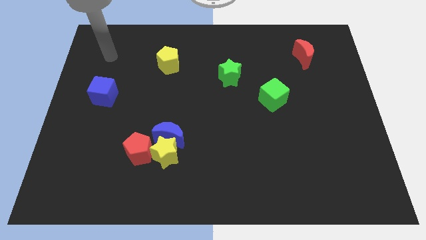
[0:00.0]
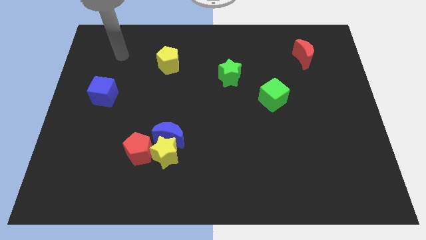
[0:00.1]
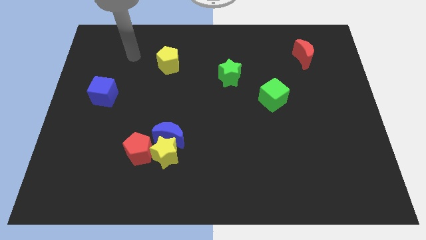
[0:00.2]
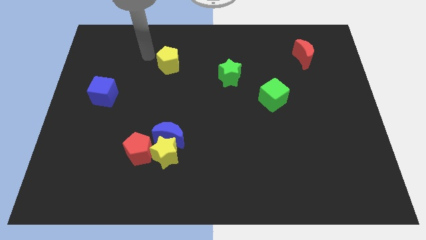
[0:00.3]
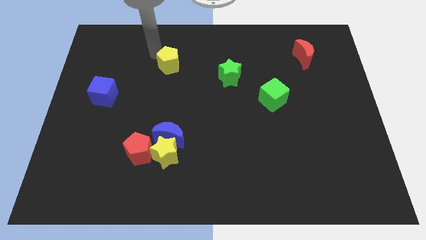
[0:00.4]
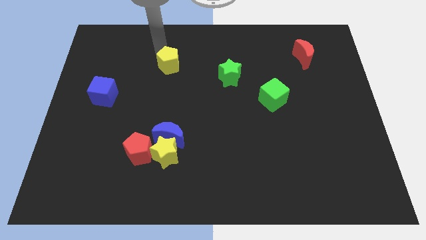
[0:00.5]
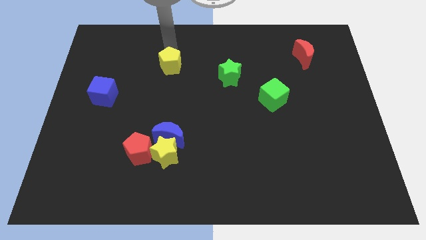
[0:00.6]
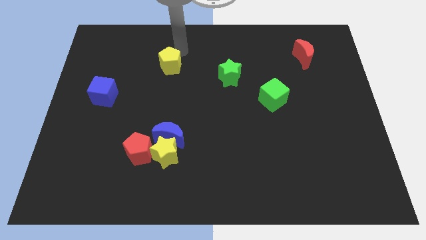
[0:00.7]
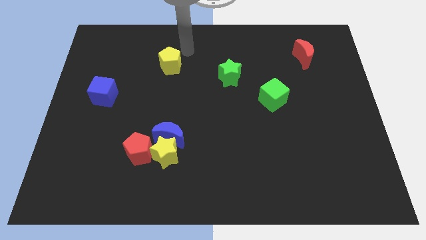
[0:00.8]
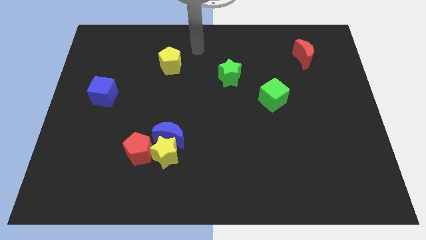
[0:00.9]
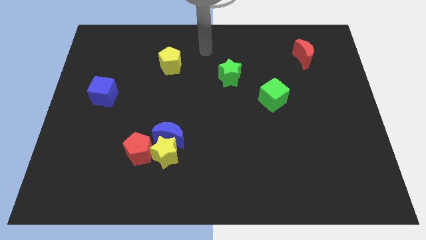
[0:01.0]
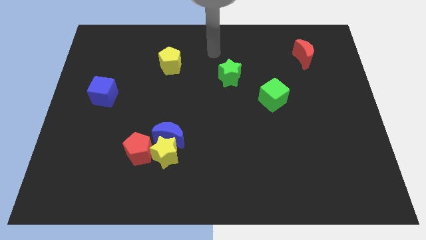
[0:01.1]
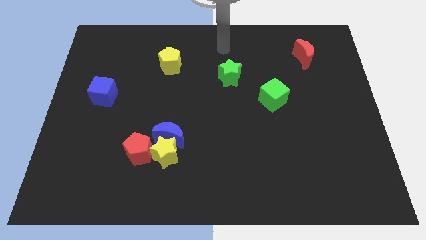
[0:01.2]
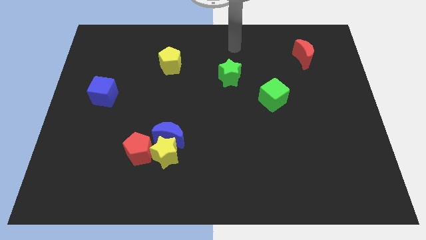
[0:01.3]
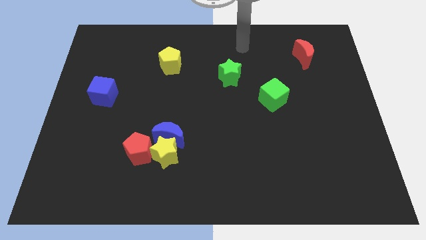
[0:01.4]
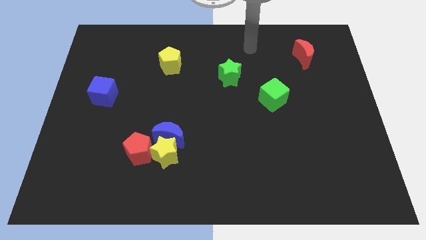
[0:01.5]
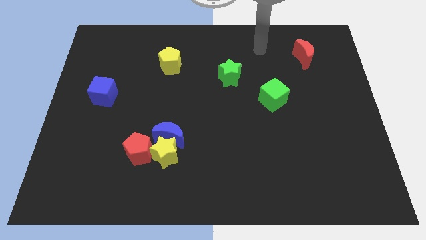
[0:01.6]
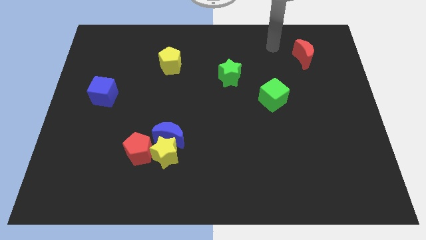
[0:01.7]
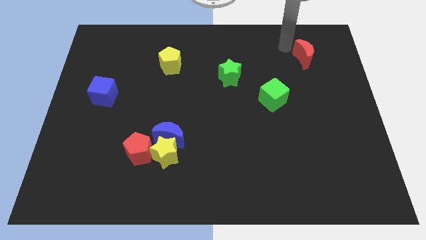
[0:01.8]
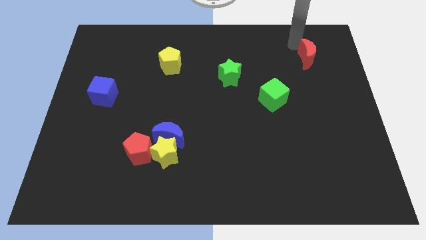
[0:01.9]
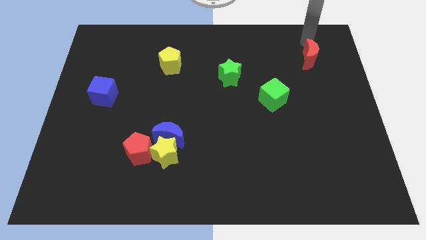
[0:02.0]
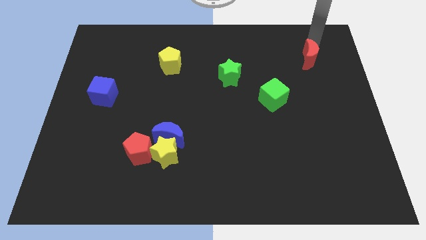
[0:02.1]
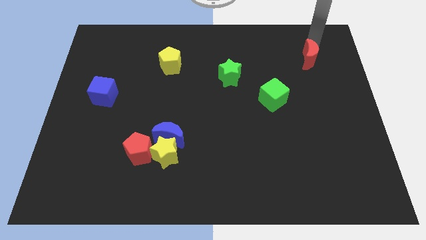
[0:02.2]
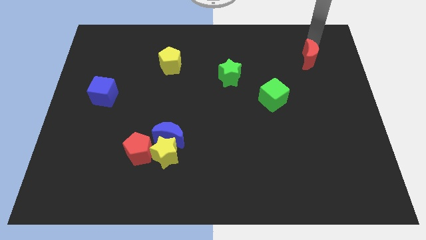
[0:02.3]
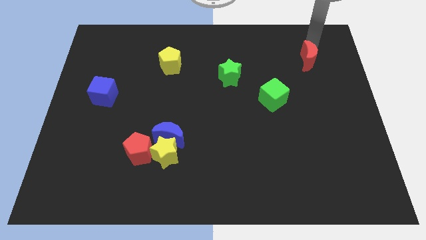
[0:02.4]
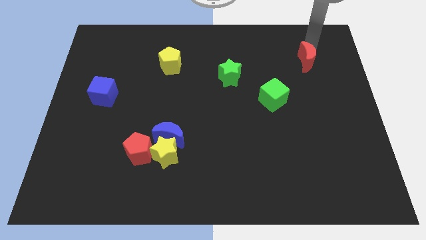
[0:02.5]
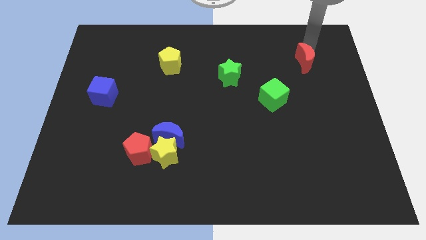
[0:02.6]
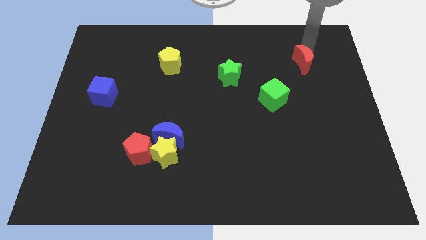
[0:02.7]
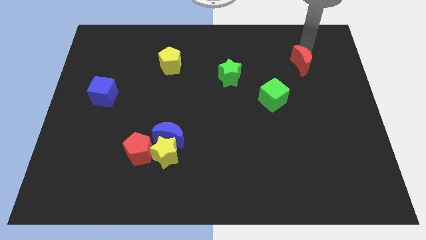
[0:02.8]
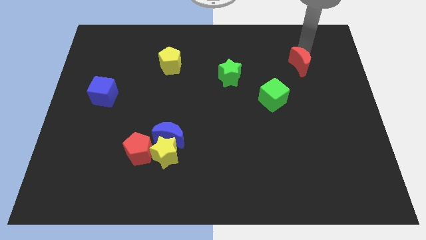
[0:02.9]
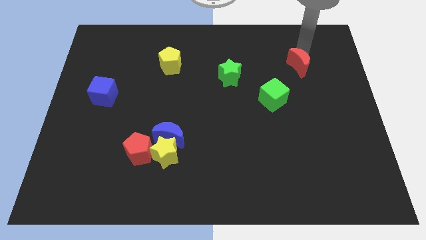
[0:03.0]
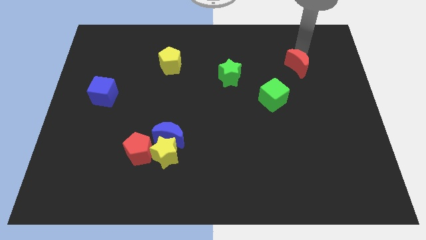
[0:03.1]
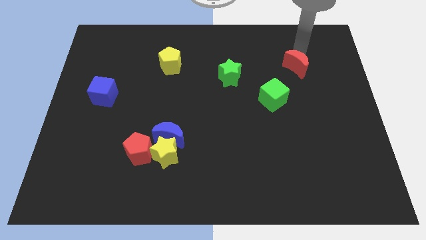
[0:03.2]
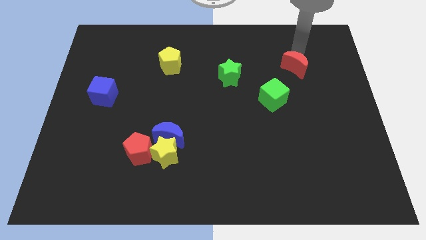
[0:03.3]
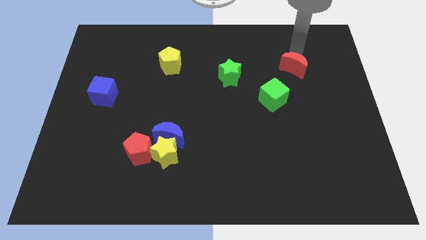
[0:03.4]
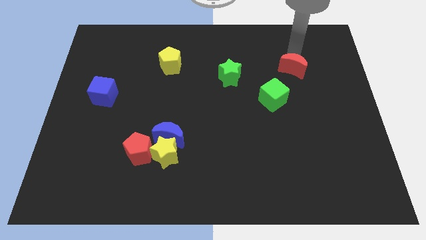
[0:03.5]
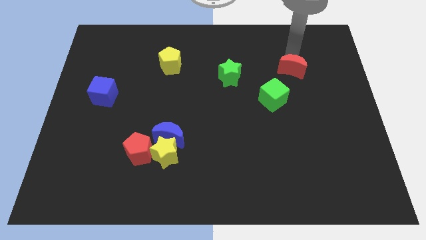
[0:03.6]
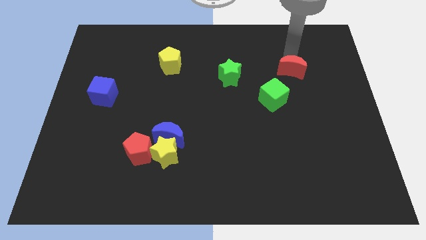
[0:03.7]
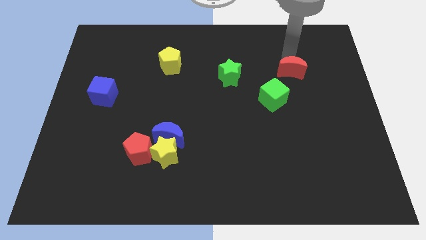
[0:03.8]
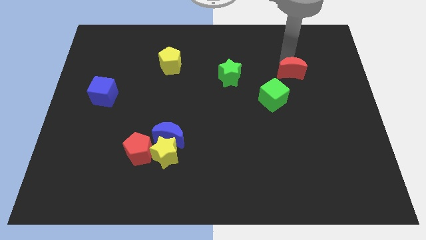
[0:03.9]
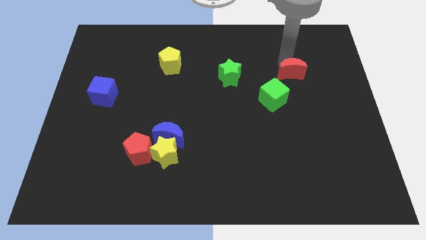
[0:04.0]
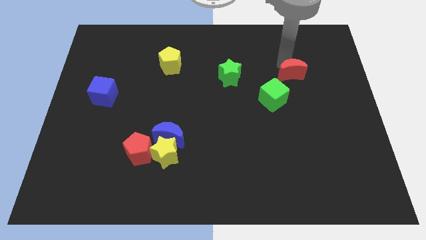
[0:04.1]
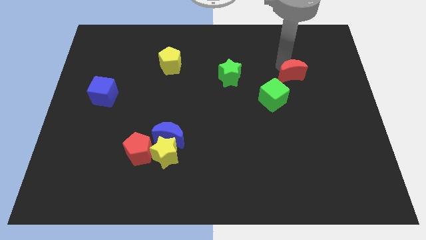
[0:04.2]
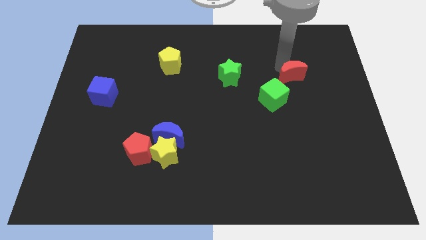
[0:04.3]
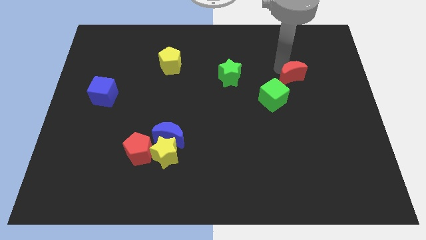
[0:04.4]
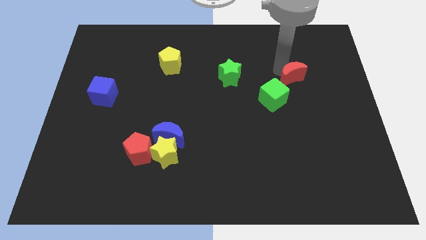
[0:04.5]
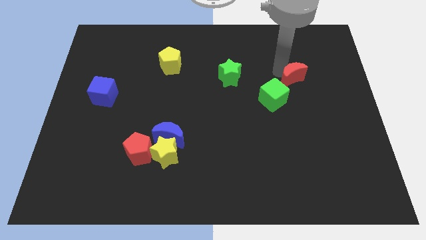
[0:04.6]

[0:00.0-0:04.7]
move the red moon a little downwards

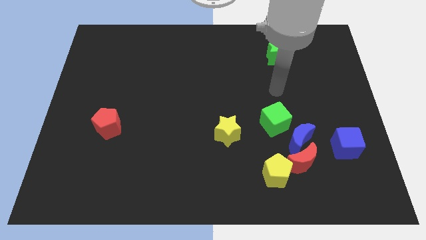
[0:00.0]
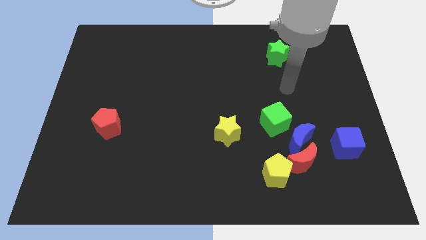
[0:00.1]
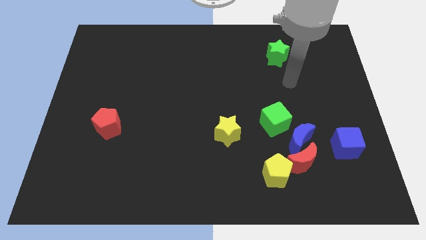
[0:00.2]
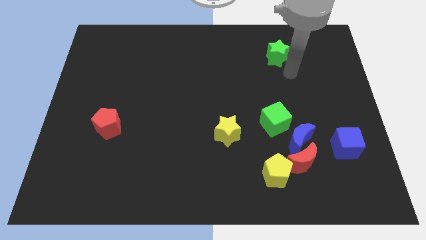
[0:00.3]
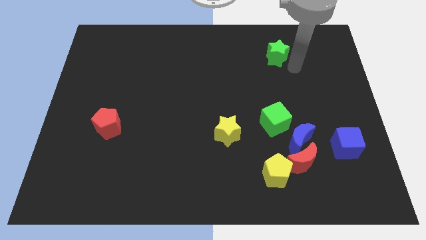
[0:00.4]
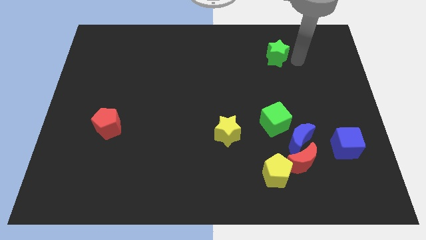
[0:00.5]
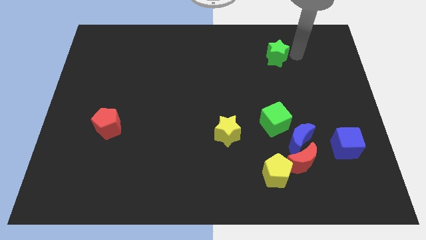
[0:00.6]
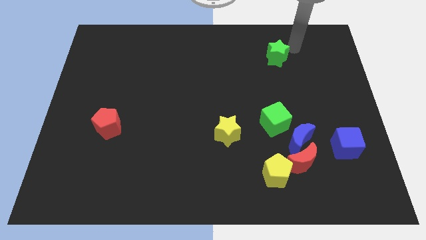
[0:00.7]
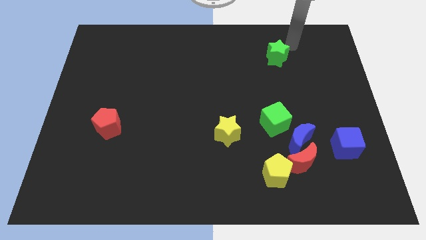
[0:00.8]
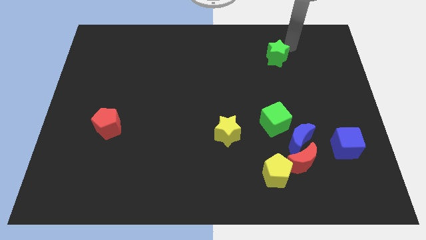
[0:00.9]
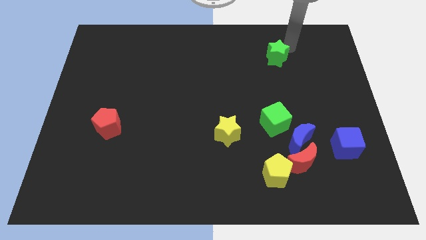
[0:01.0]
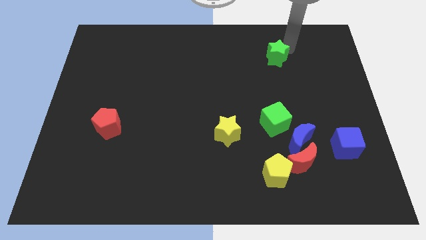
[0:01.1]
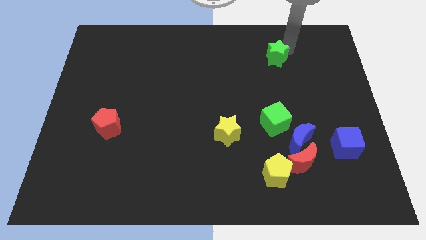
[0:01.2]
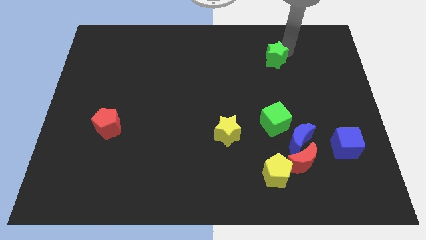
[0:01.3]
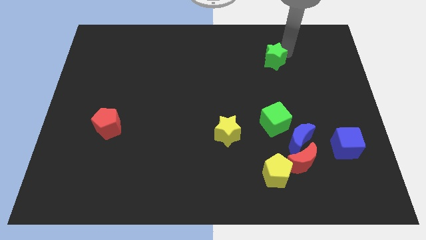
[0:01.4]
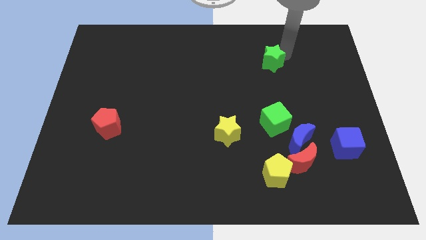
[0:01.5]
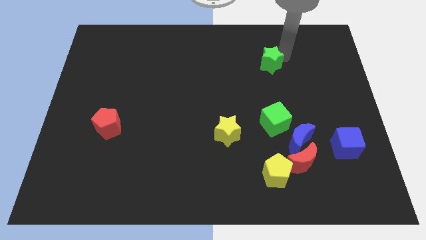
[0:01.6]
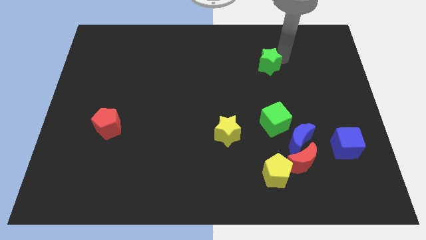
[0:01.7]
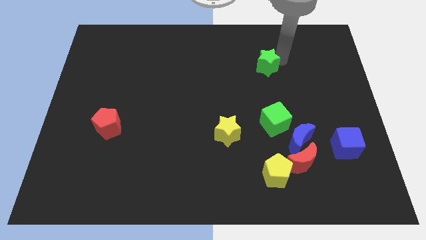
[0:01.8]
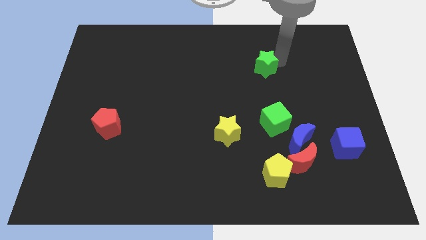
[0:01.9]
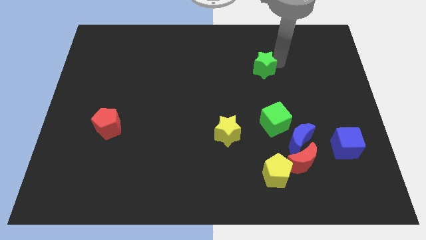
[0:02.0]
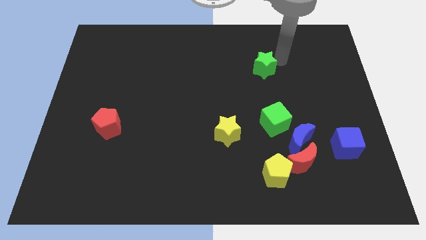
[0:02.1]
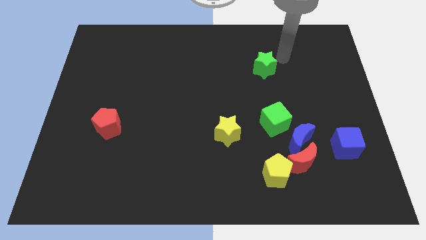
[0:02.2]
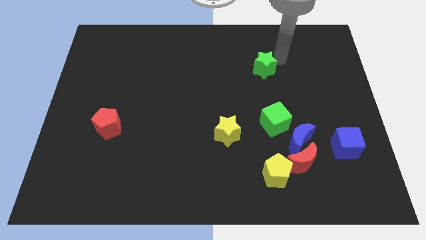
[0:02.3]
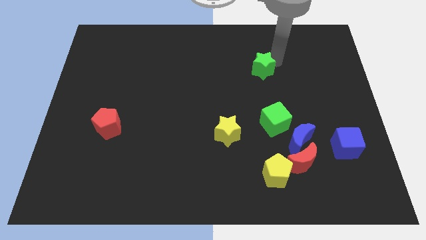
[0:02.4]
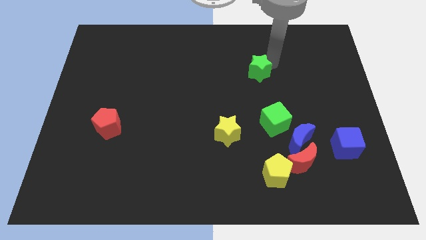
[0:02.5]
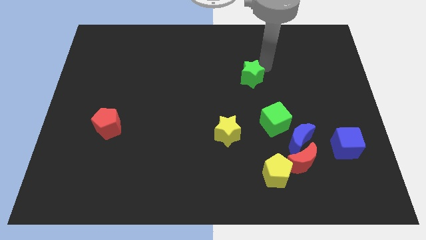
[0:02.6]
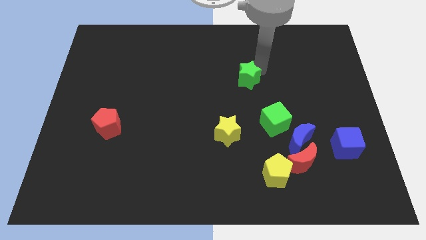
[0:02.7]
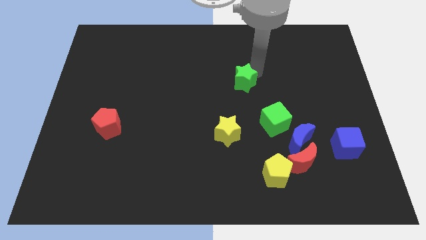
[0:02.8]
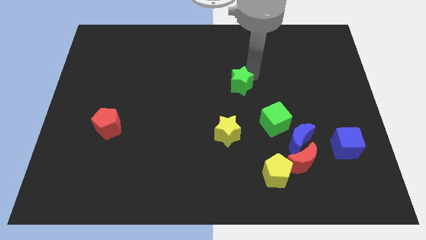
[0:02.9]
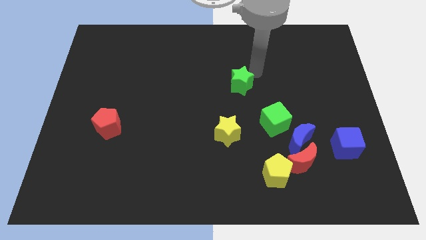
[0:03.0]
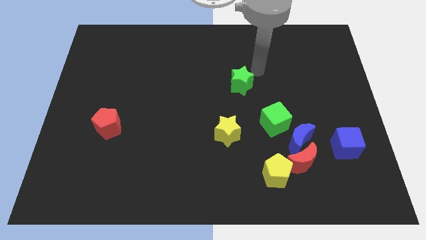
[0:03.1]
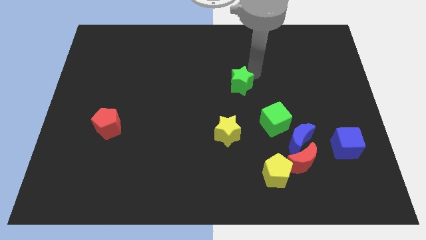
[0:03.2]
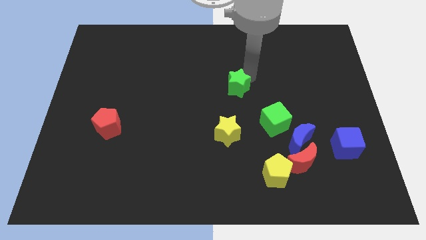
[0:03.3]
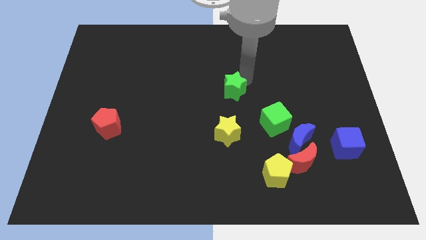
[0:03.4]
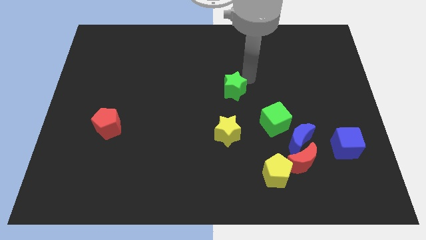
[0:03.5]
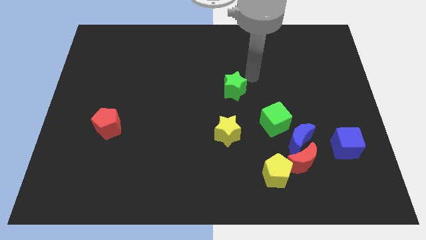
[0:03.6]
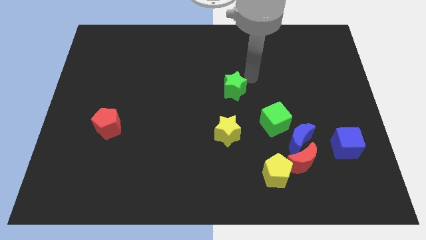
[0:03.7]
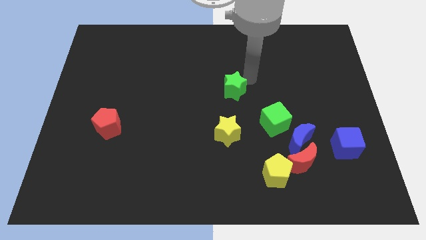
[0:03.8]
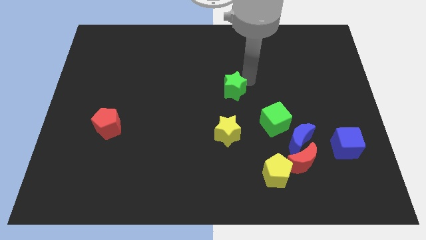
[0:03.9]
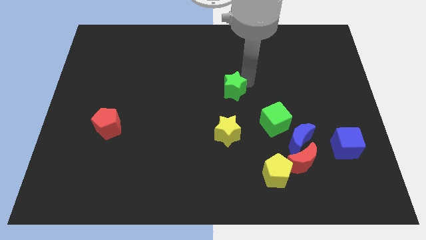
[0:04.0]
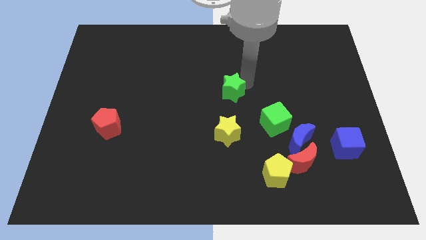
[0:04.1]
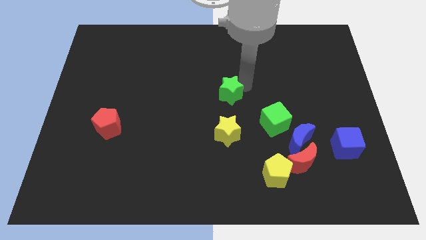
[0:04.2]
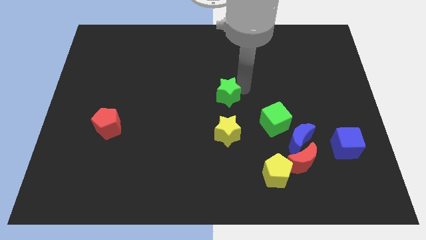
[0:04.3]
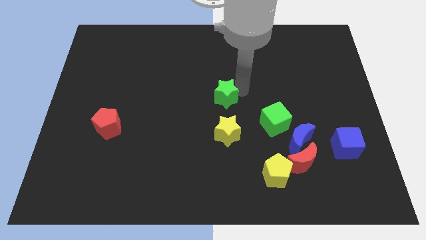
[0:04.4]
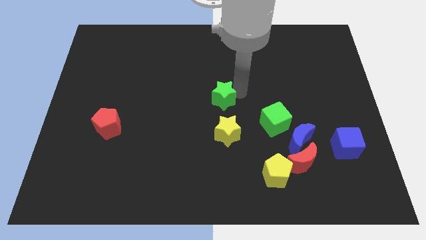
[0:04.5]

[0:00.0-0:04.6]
move the green star down and left diagonally
